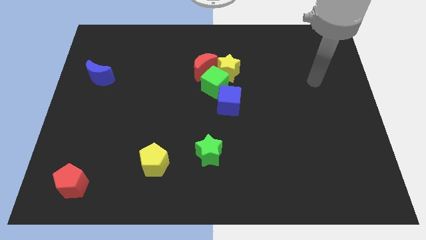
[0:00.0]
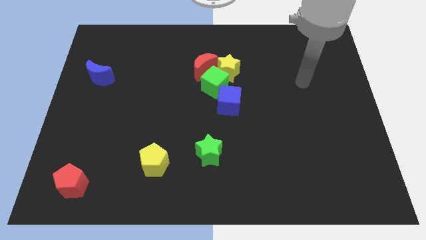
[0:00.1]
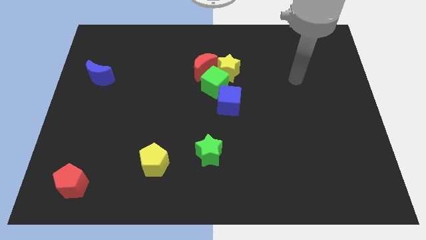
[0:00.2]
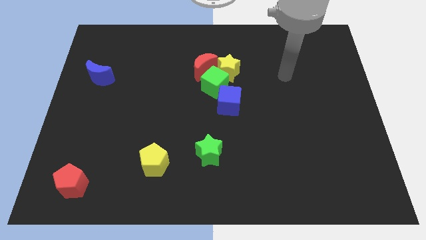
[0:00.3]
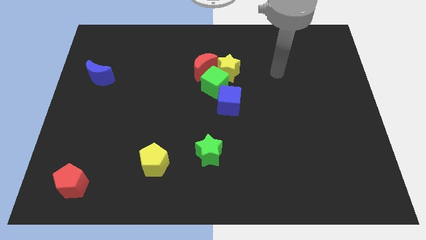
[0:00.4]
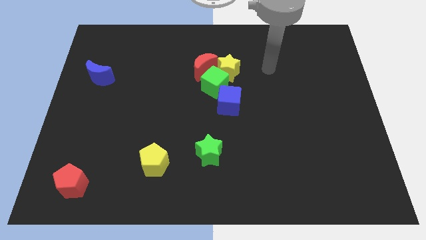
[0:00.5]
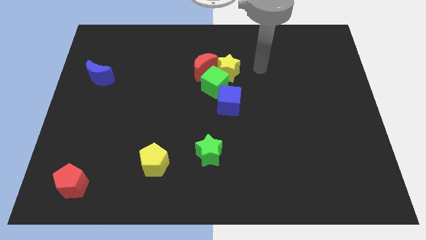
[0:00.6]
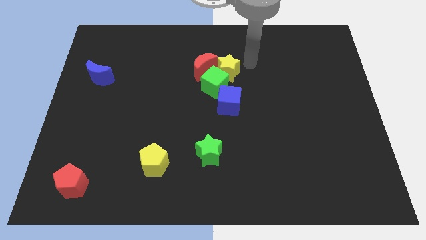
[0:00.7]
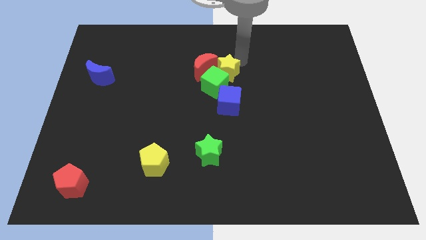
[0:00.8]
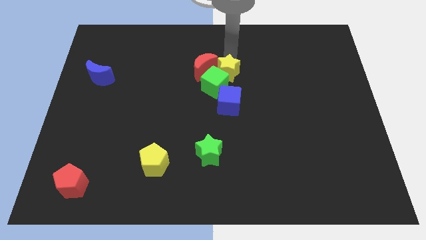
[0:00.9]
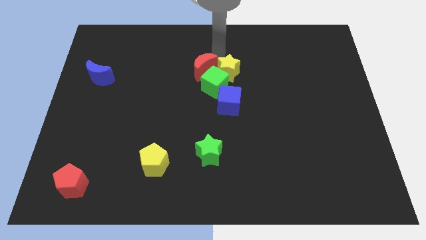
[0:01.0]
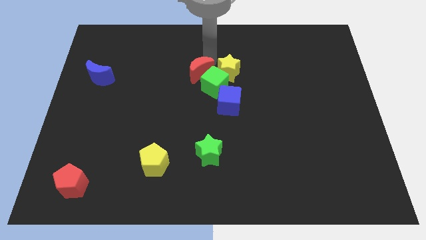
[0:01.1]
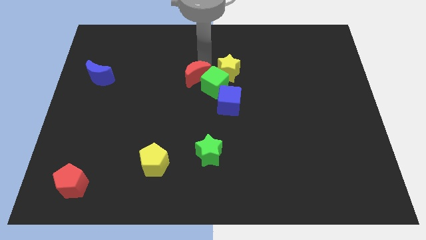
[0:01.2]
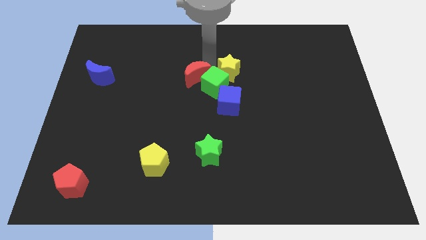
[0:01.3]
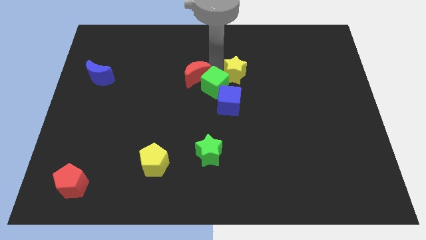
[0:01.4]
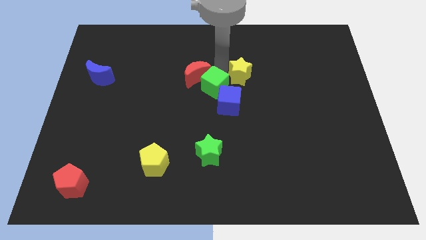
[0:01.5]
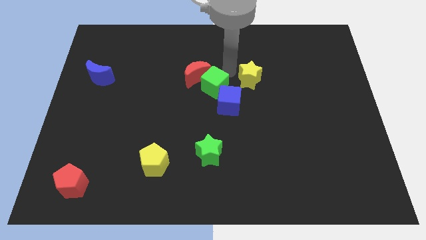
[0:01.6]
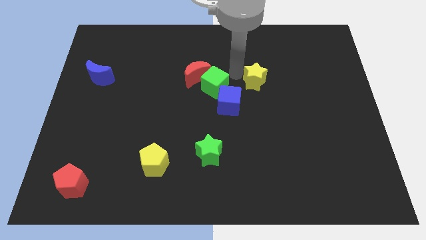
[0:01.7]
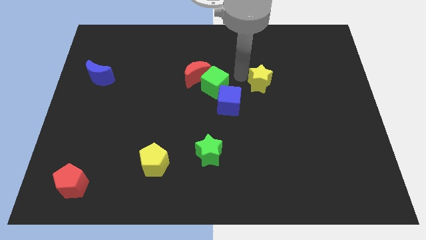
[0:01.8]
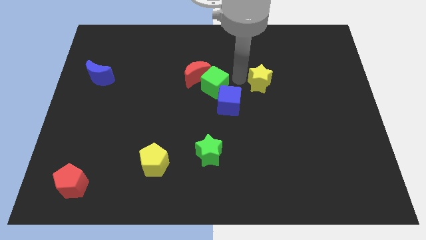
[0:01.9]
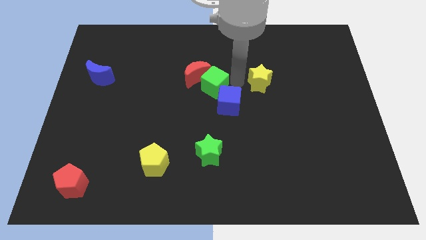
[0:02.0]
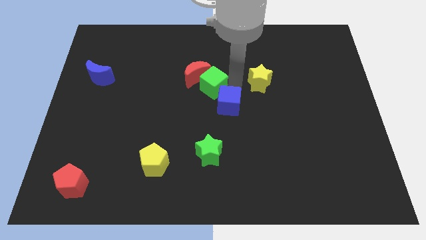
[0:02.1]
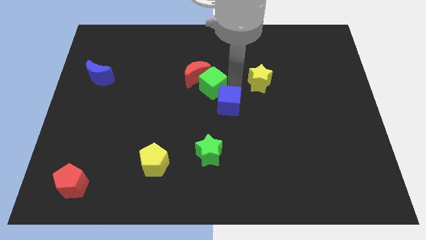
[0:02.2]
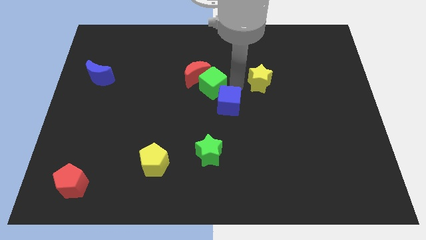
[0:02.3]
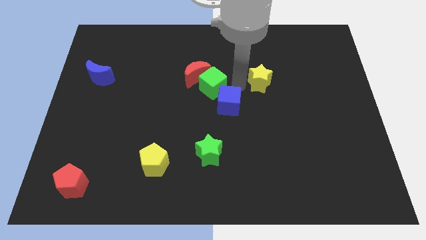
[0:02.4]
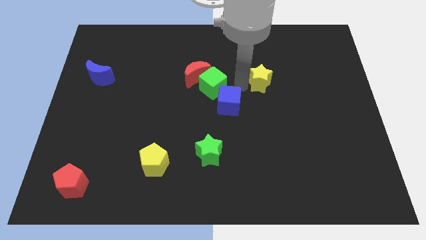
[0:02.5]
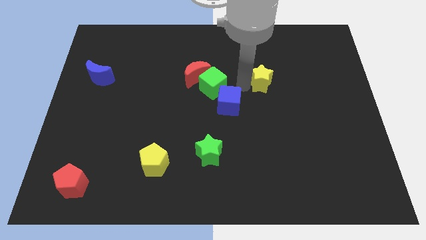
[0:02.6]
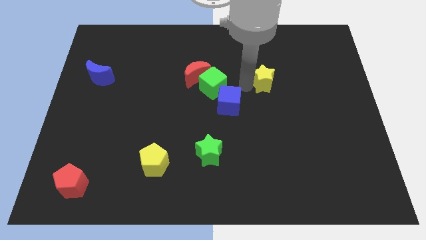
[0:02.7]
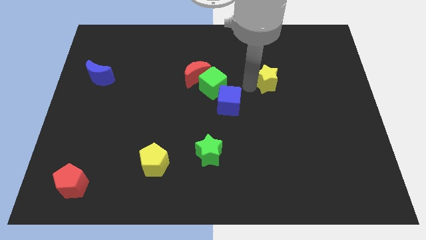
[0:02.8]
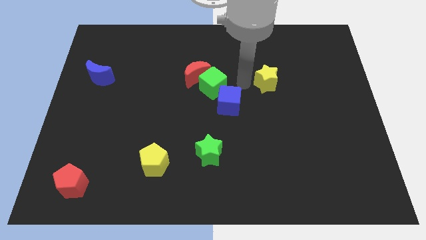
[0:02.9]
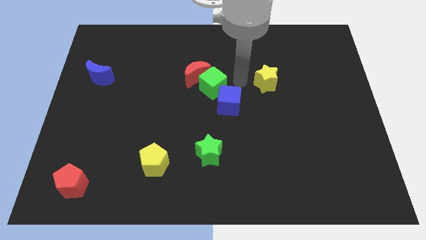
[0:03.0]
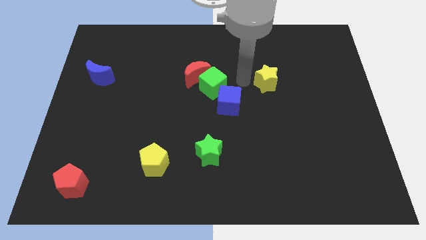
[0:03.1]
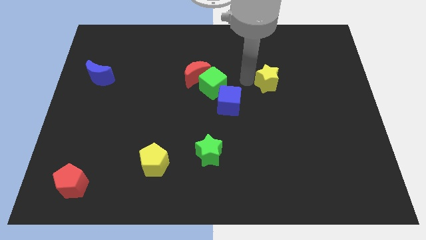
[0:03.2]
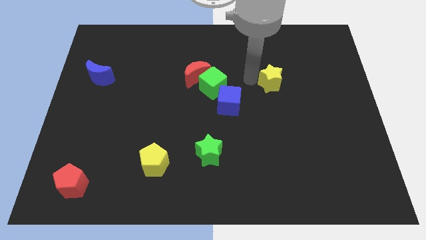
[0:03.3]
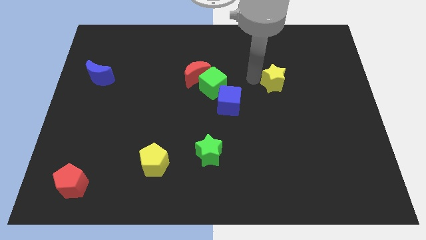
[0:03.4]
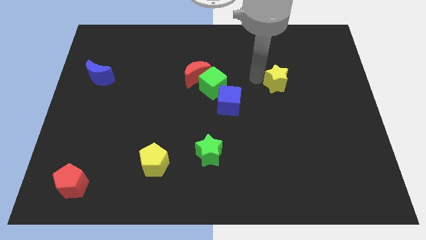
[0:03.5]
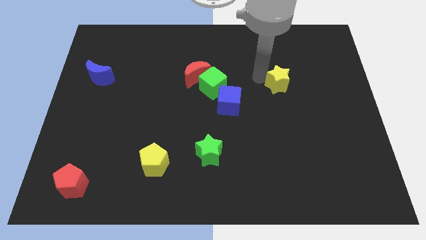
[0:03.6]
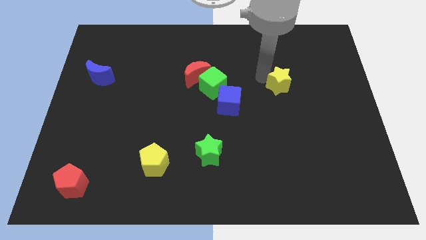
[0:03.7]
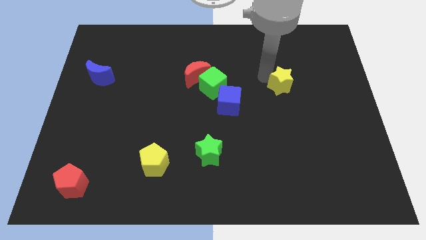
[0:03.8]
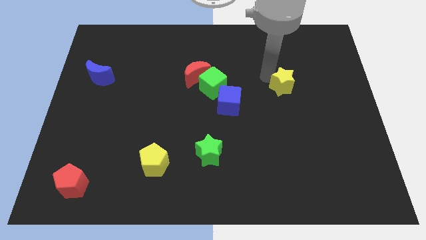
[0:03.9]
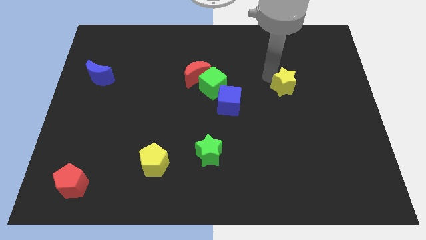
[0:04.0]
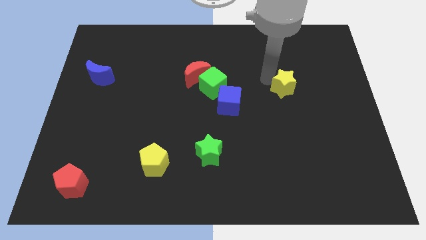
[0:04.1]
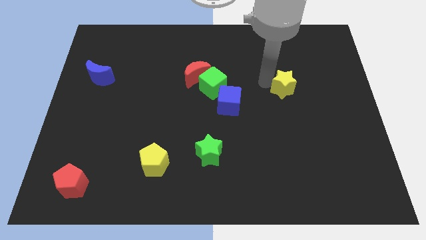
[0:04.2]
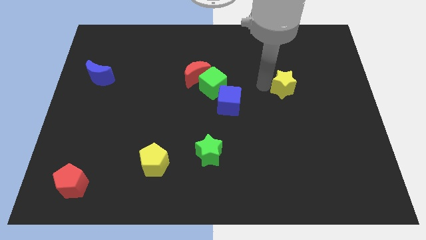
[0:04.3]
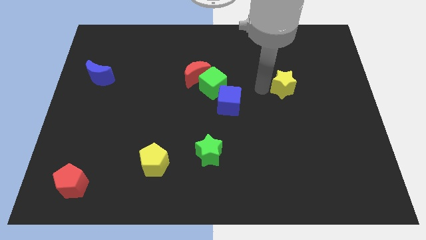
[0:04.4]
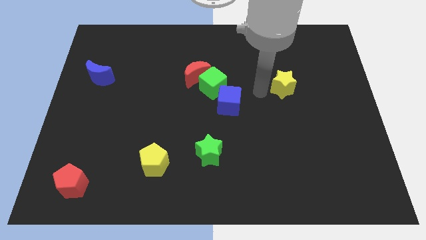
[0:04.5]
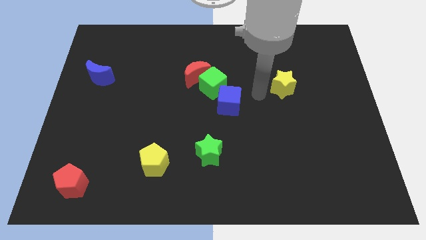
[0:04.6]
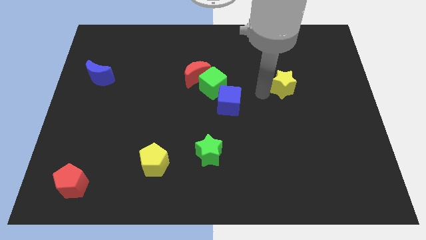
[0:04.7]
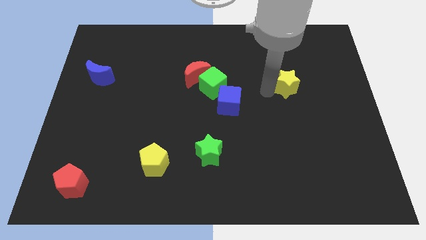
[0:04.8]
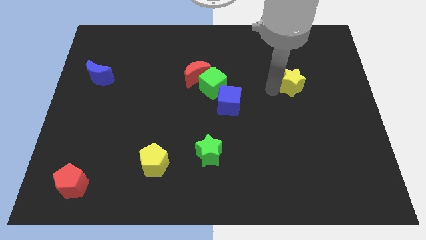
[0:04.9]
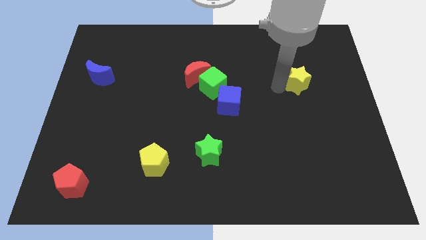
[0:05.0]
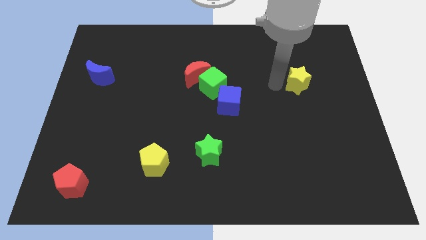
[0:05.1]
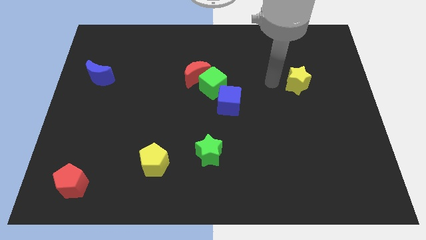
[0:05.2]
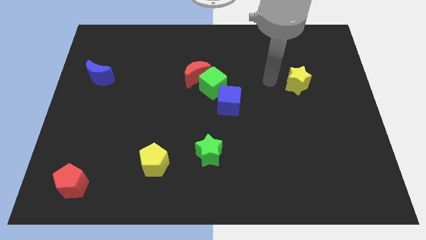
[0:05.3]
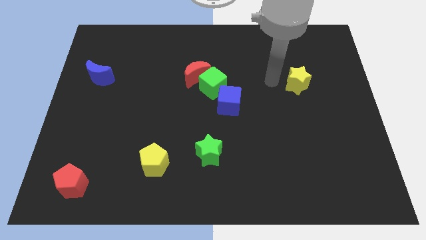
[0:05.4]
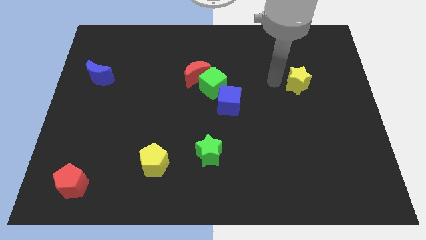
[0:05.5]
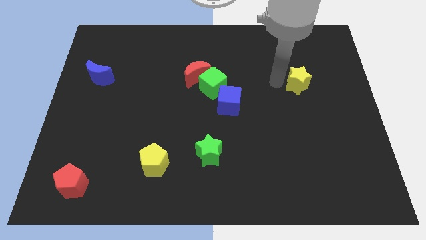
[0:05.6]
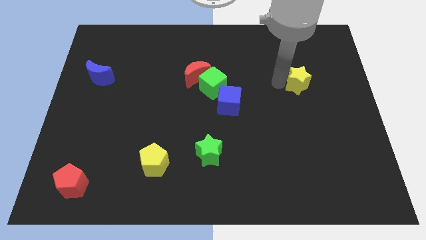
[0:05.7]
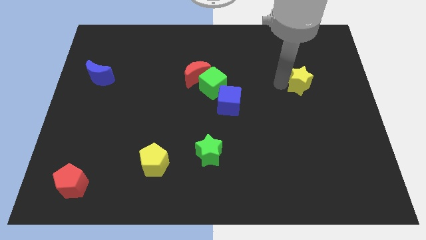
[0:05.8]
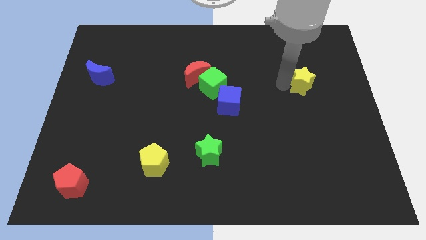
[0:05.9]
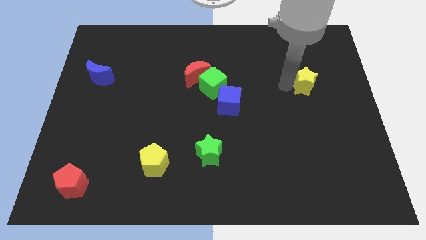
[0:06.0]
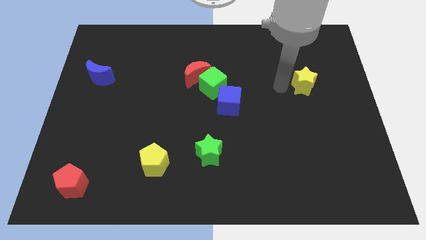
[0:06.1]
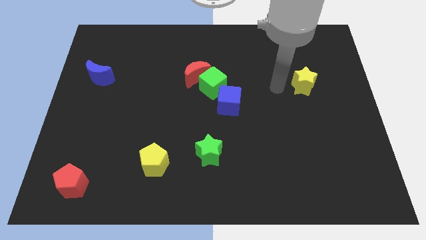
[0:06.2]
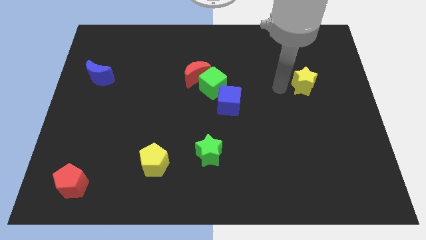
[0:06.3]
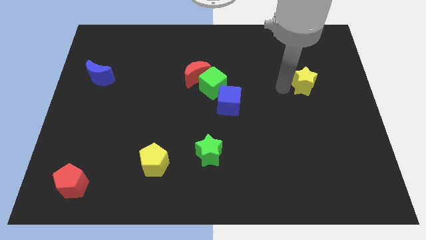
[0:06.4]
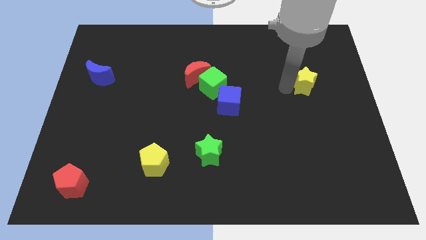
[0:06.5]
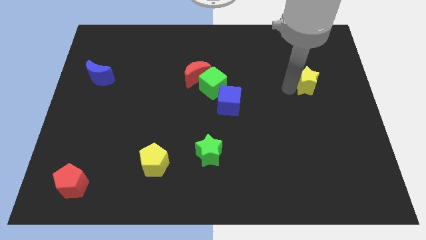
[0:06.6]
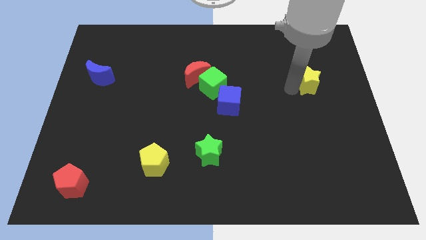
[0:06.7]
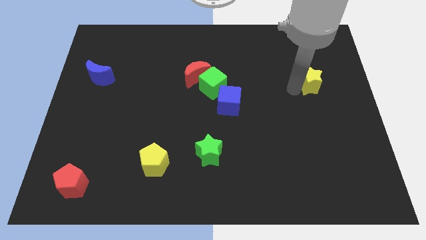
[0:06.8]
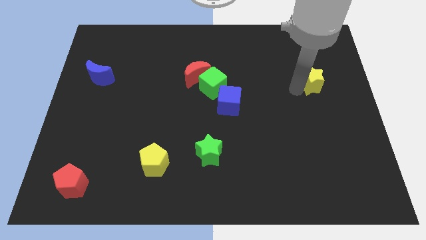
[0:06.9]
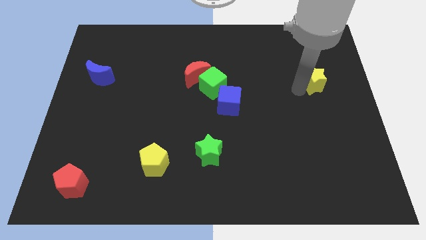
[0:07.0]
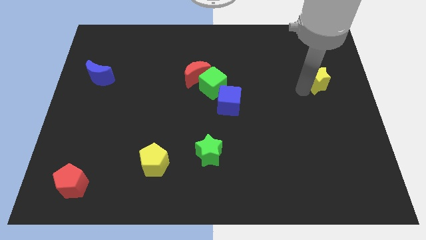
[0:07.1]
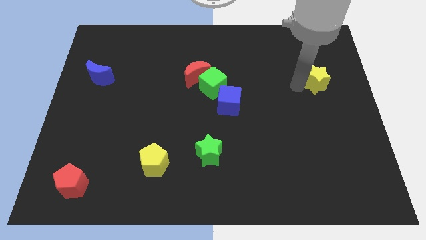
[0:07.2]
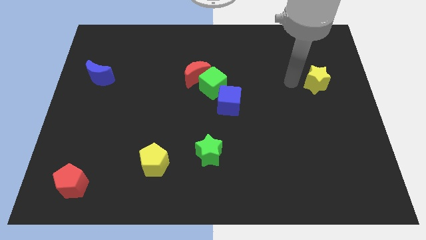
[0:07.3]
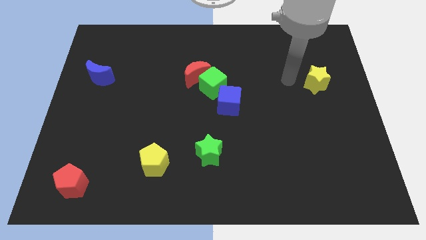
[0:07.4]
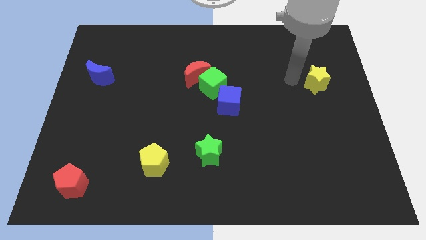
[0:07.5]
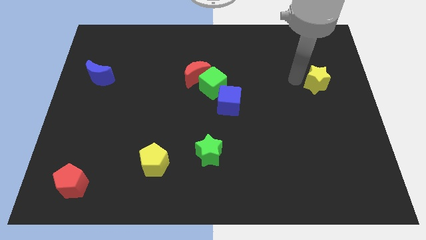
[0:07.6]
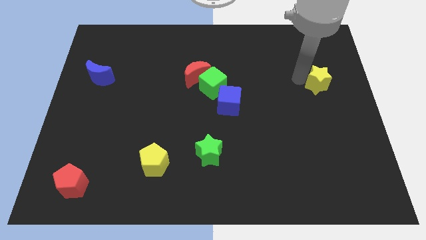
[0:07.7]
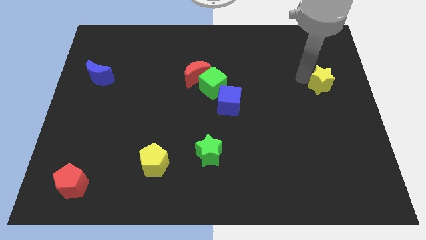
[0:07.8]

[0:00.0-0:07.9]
slide the yellow star to the center right
